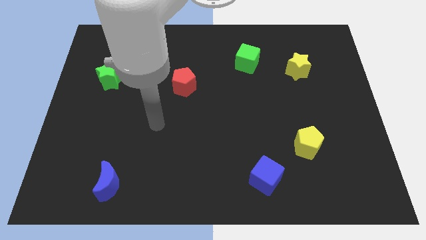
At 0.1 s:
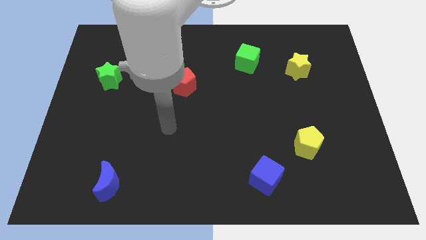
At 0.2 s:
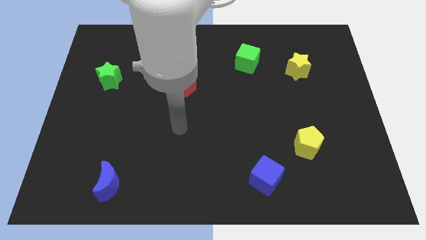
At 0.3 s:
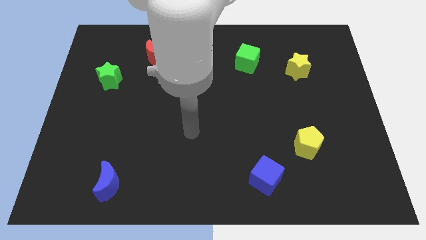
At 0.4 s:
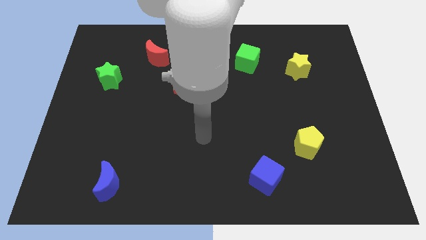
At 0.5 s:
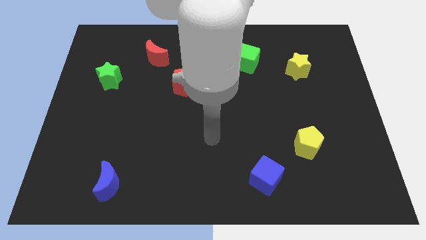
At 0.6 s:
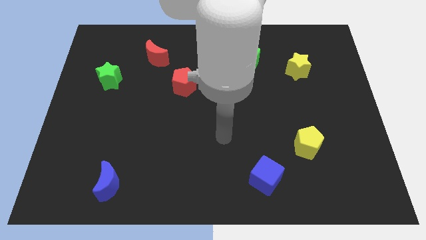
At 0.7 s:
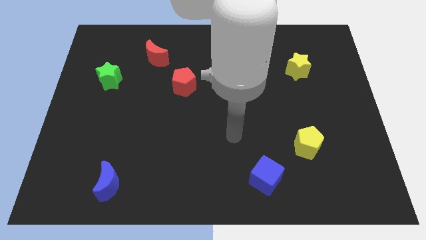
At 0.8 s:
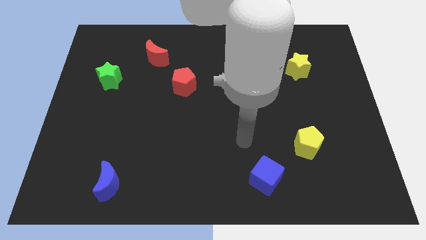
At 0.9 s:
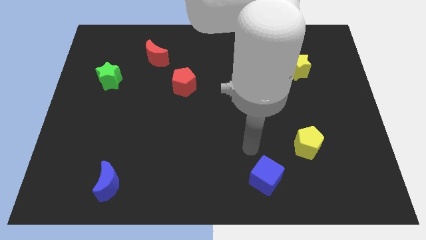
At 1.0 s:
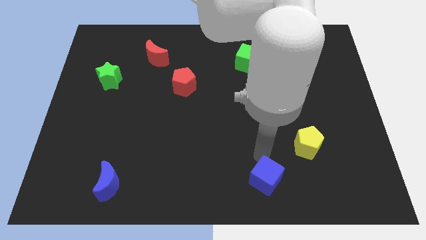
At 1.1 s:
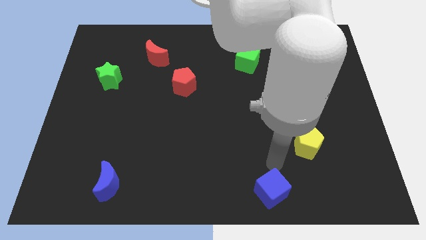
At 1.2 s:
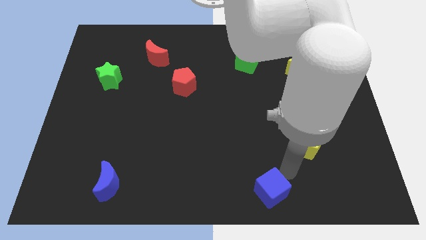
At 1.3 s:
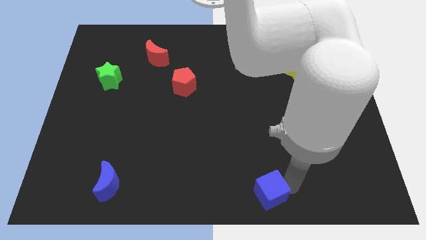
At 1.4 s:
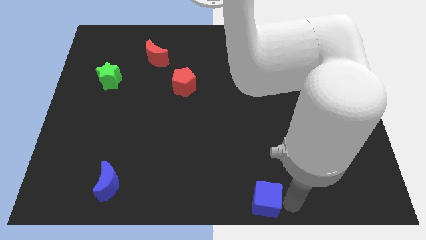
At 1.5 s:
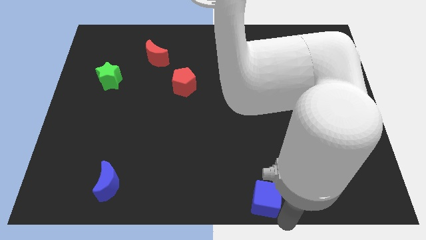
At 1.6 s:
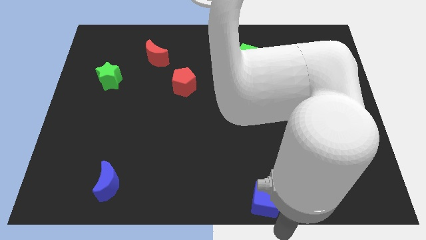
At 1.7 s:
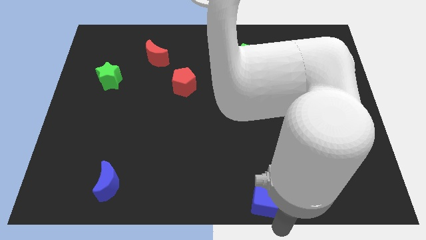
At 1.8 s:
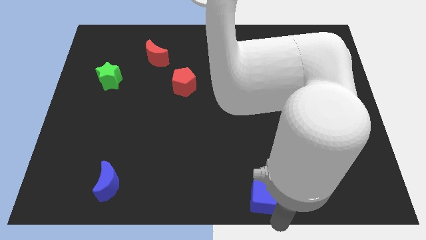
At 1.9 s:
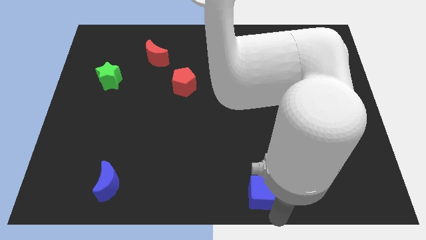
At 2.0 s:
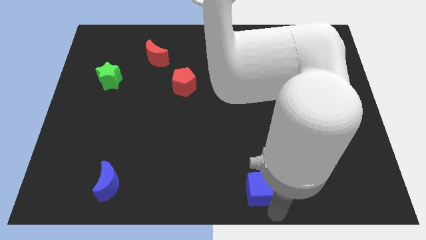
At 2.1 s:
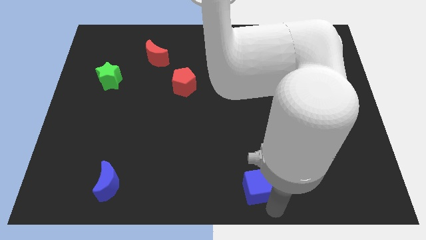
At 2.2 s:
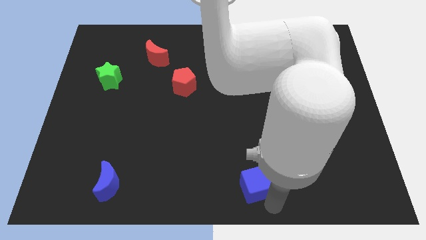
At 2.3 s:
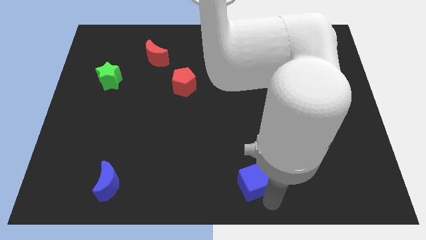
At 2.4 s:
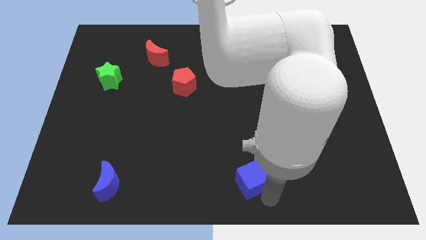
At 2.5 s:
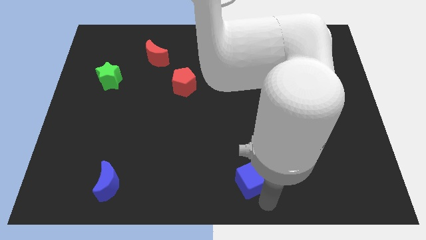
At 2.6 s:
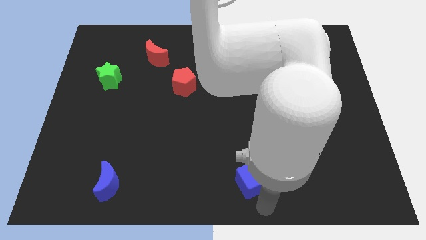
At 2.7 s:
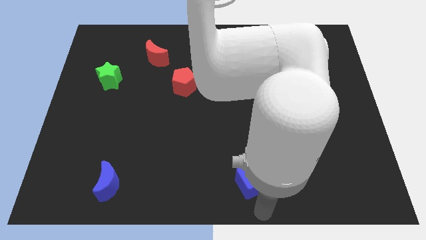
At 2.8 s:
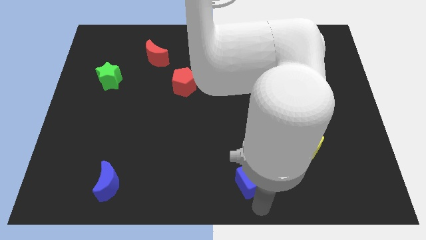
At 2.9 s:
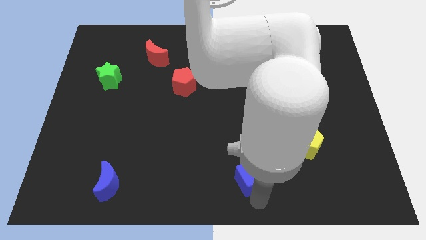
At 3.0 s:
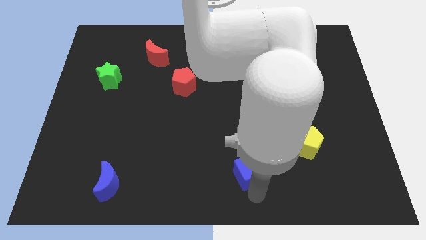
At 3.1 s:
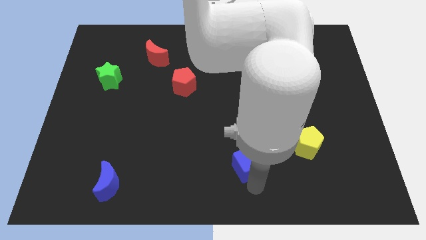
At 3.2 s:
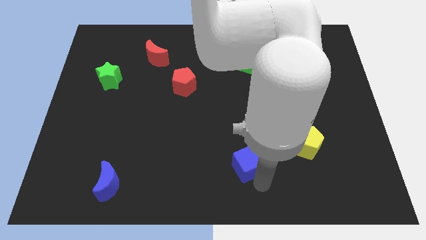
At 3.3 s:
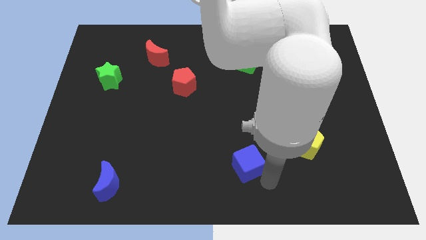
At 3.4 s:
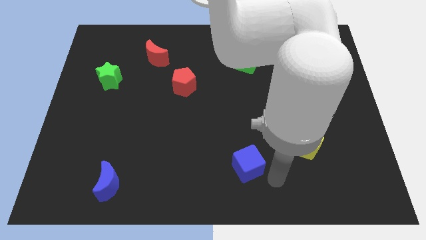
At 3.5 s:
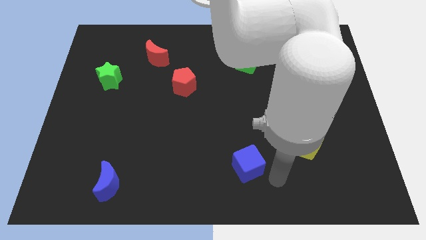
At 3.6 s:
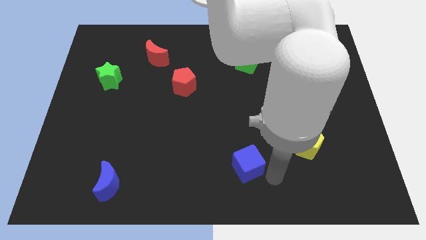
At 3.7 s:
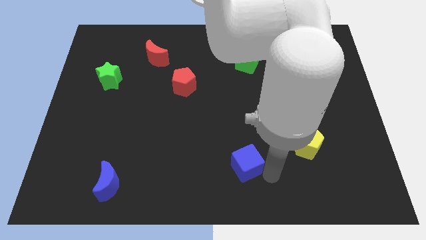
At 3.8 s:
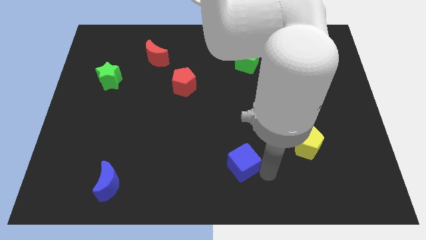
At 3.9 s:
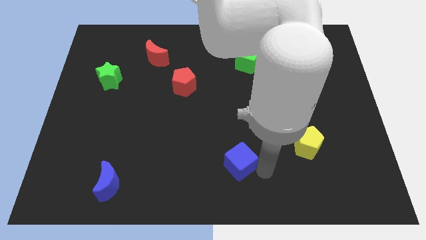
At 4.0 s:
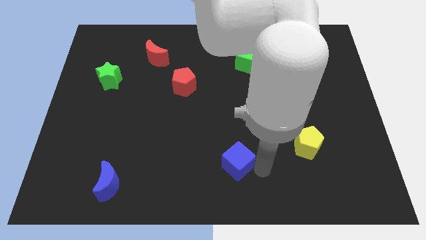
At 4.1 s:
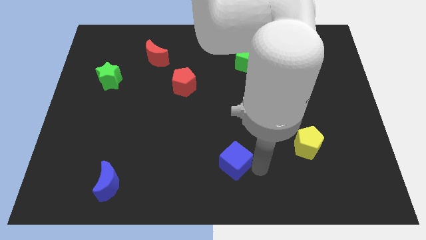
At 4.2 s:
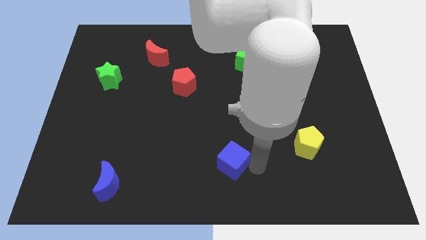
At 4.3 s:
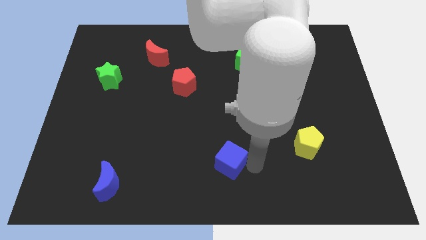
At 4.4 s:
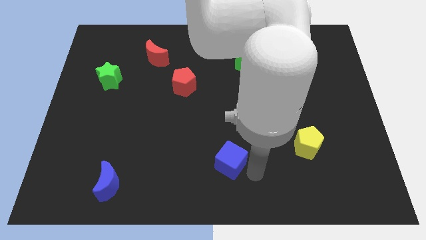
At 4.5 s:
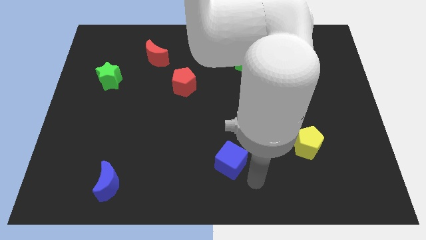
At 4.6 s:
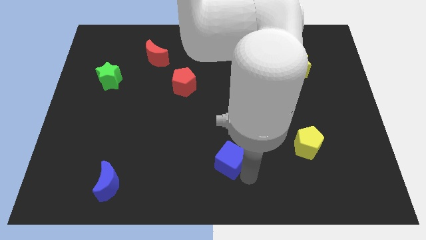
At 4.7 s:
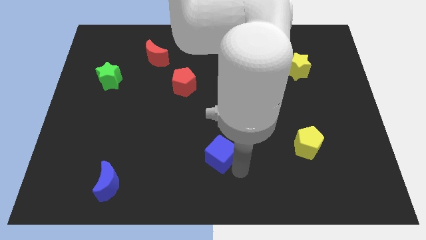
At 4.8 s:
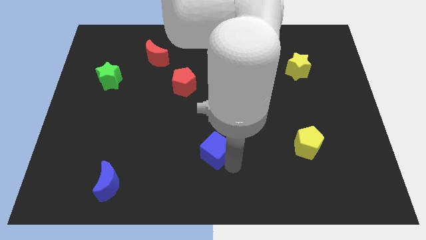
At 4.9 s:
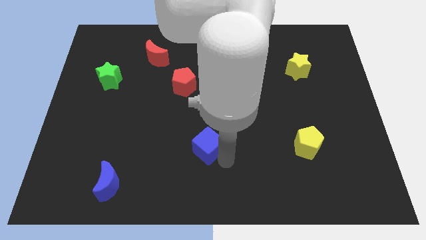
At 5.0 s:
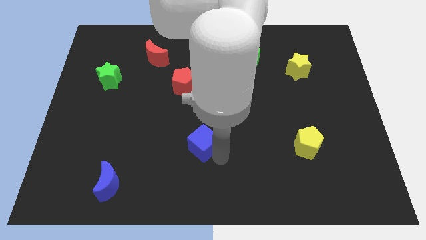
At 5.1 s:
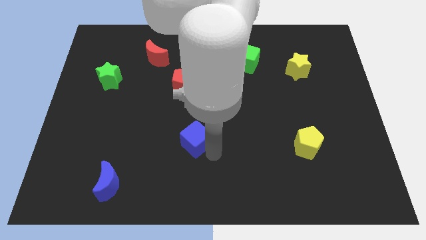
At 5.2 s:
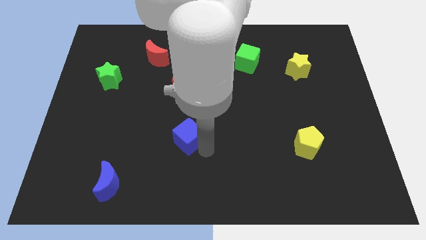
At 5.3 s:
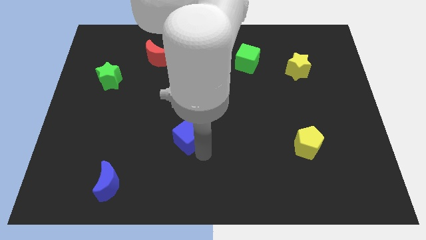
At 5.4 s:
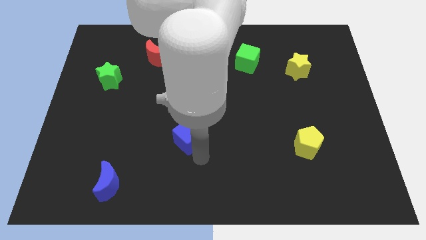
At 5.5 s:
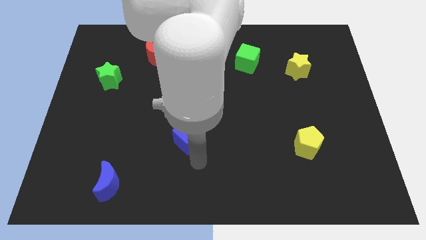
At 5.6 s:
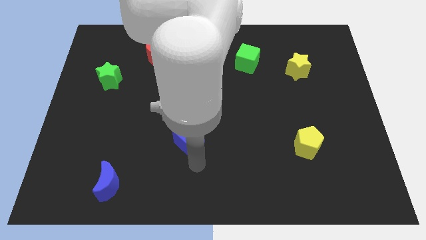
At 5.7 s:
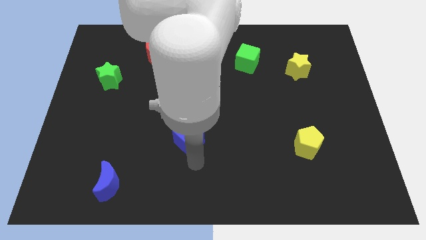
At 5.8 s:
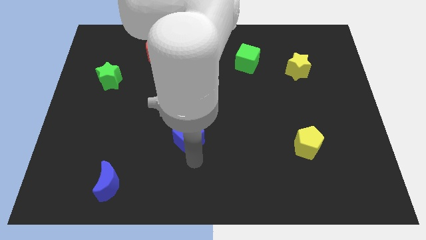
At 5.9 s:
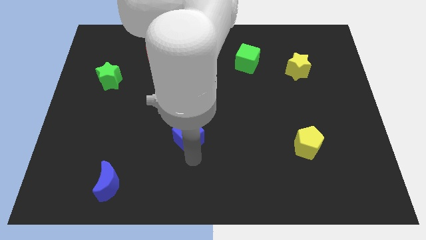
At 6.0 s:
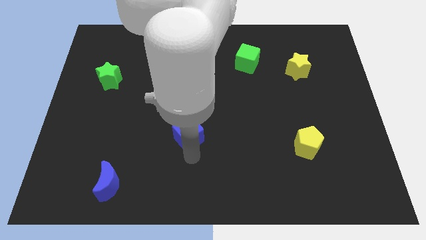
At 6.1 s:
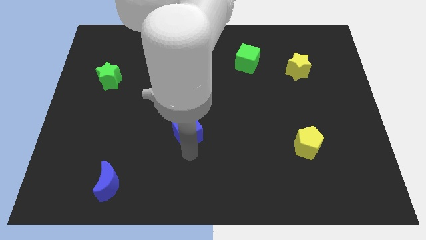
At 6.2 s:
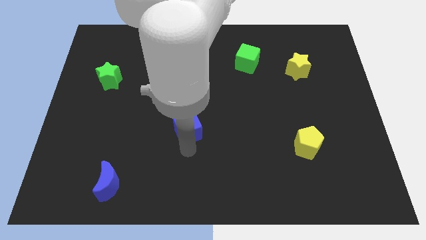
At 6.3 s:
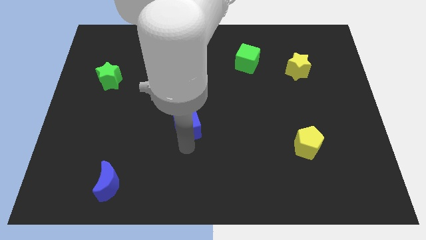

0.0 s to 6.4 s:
push the blue cube up and to the left diagonally

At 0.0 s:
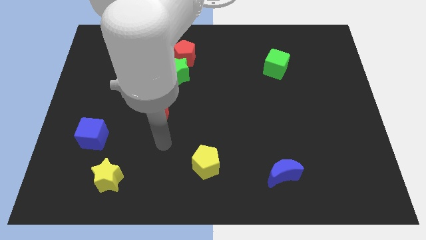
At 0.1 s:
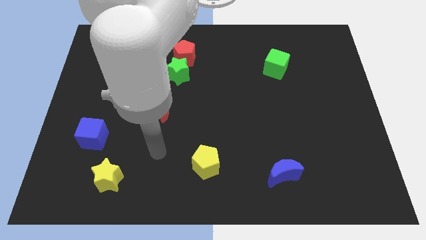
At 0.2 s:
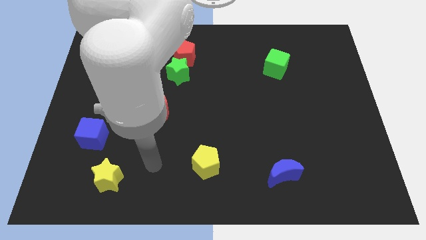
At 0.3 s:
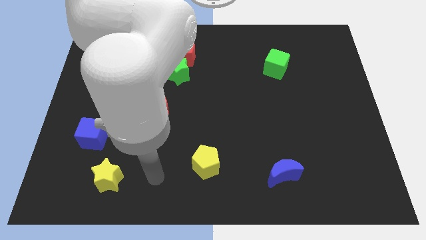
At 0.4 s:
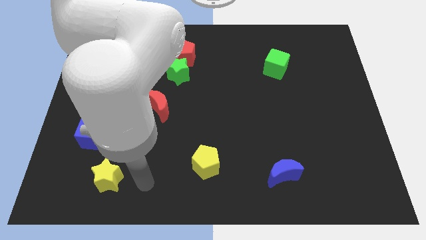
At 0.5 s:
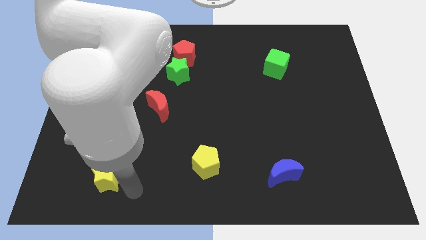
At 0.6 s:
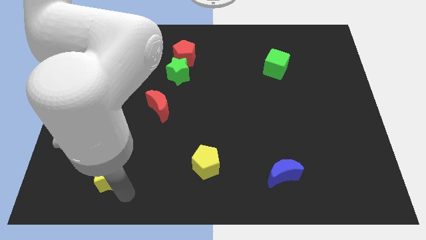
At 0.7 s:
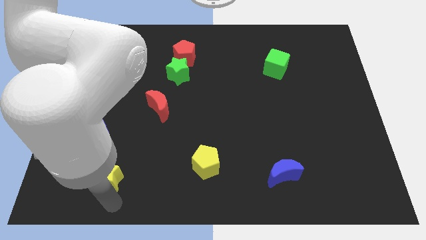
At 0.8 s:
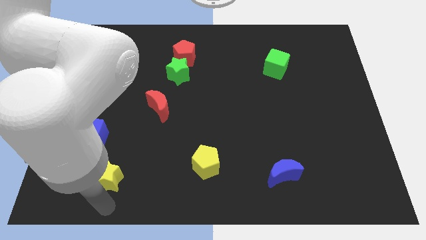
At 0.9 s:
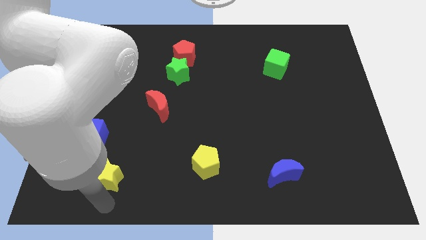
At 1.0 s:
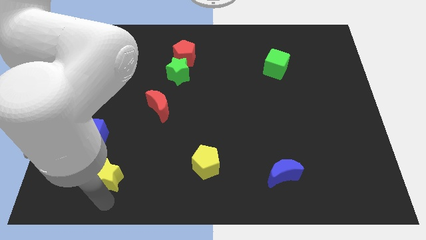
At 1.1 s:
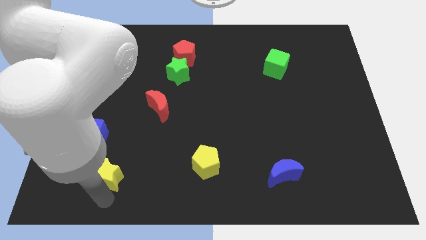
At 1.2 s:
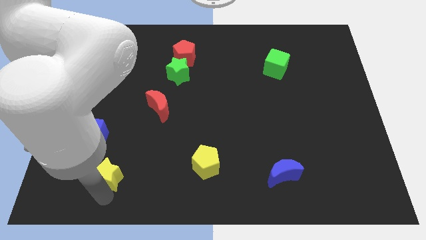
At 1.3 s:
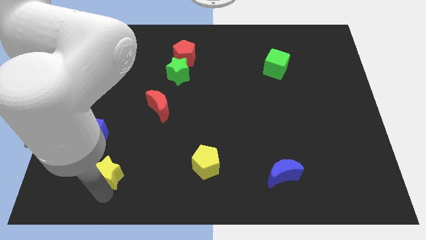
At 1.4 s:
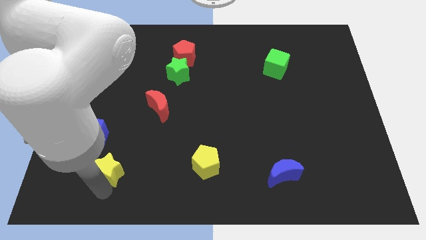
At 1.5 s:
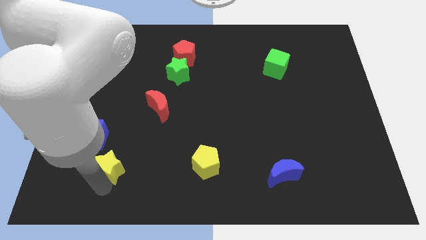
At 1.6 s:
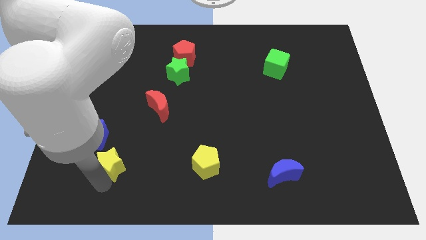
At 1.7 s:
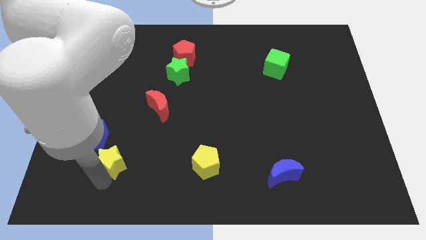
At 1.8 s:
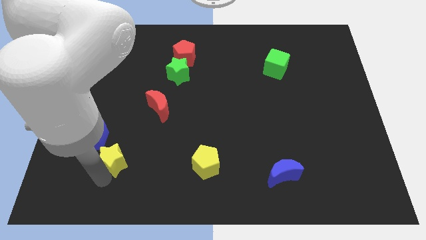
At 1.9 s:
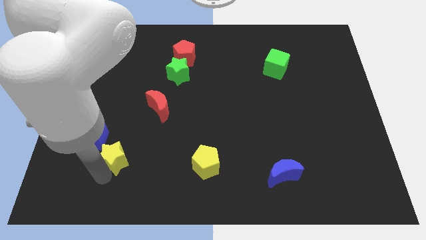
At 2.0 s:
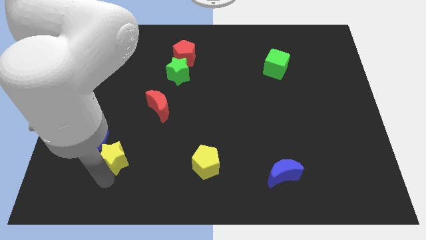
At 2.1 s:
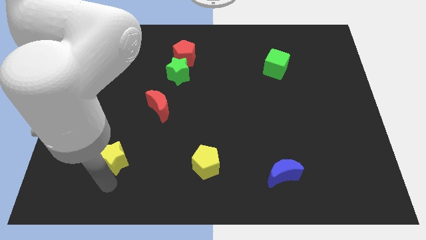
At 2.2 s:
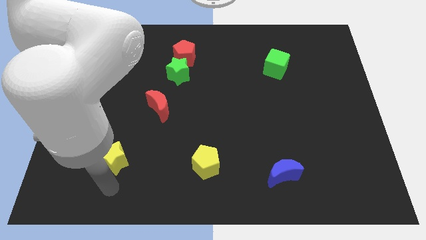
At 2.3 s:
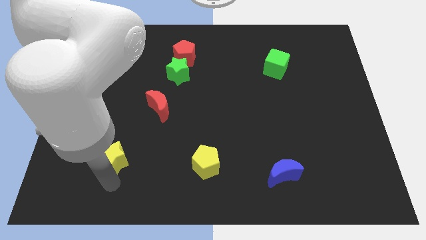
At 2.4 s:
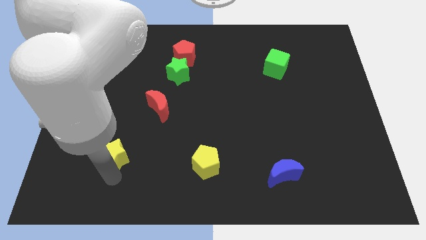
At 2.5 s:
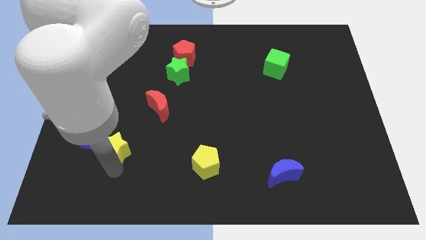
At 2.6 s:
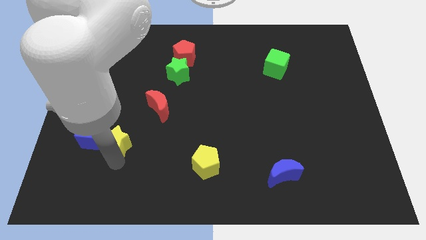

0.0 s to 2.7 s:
push the yellow star a little bit upwards
